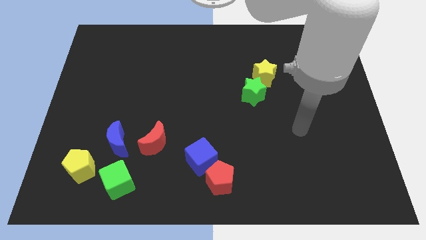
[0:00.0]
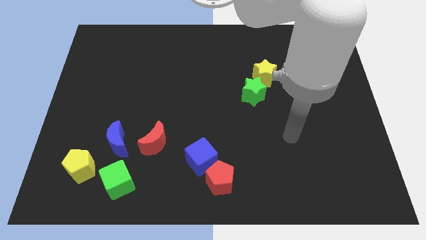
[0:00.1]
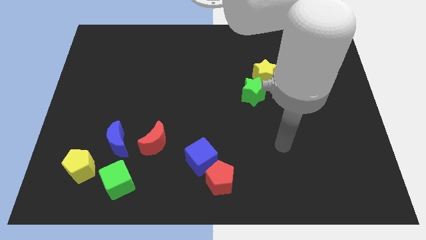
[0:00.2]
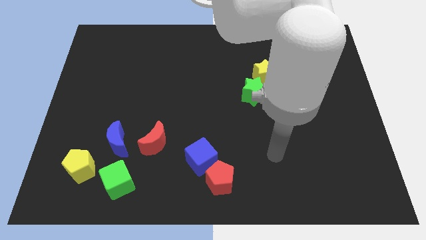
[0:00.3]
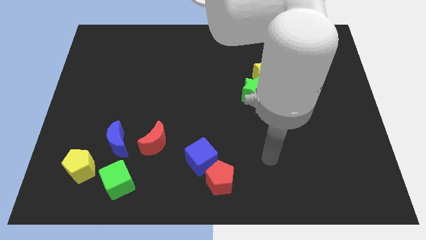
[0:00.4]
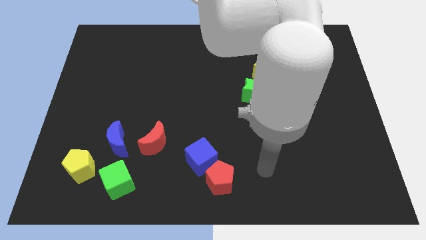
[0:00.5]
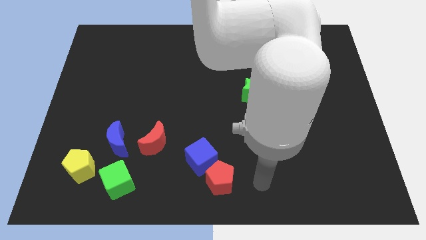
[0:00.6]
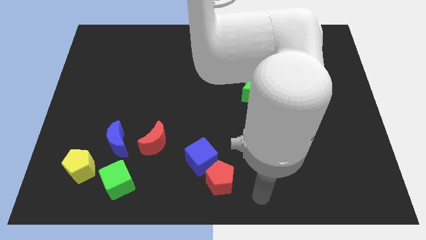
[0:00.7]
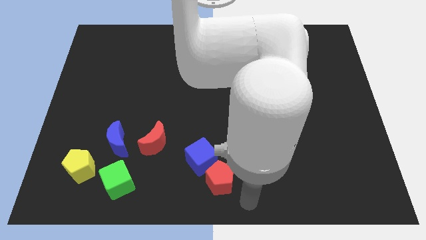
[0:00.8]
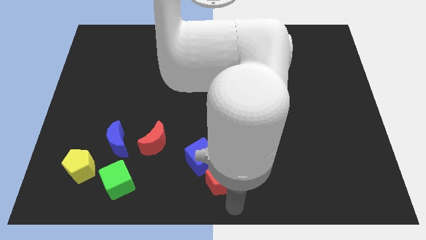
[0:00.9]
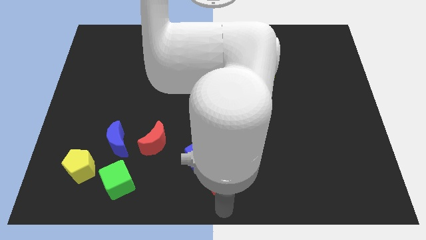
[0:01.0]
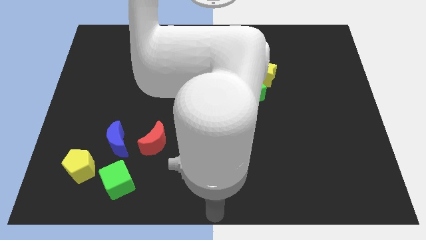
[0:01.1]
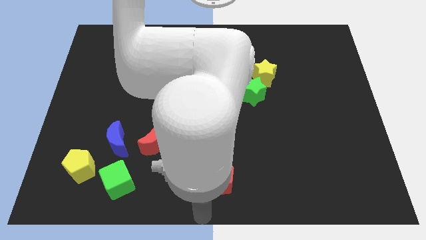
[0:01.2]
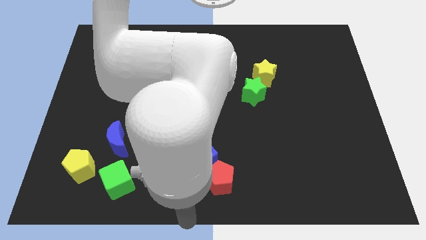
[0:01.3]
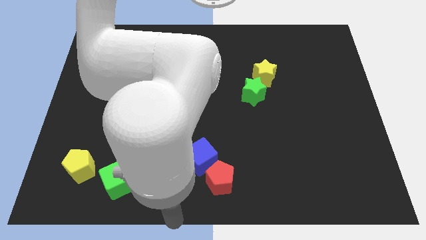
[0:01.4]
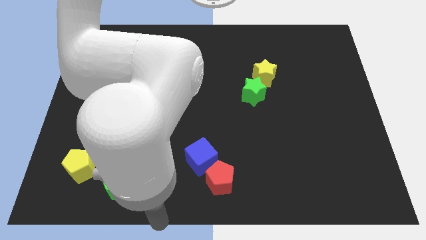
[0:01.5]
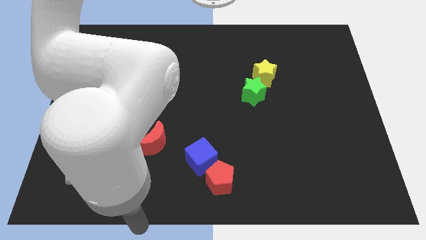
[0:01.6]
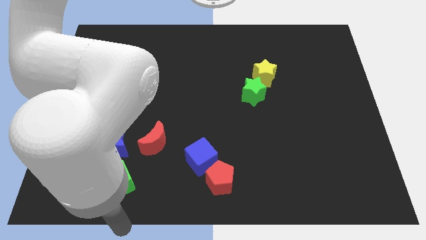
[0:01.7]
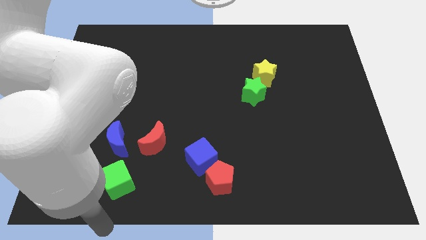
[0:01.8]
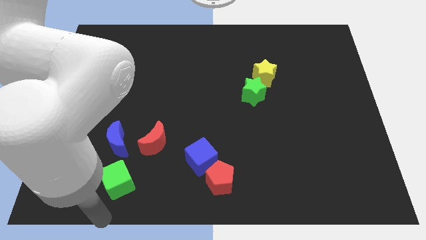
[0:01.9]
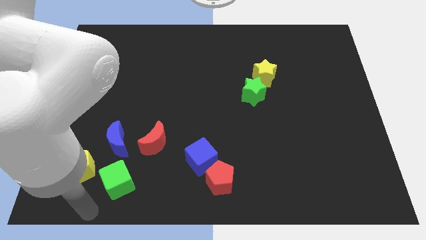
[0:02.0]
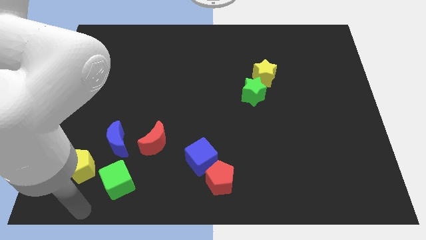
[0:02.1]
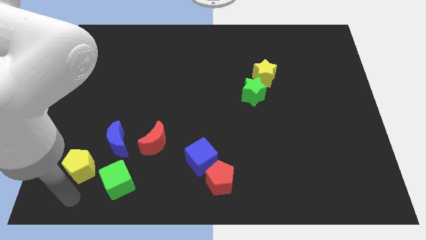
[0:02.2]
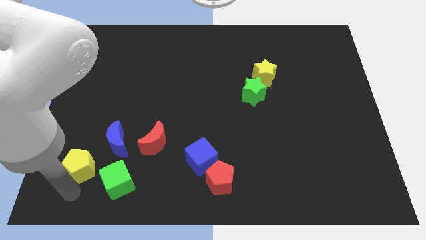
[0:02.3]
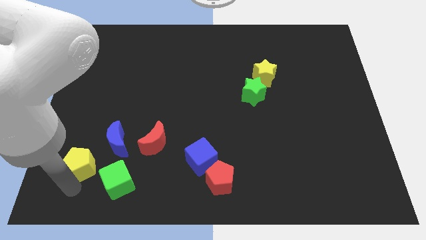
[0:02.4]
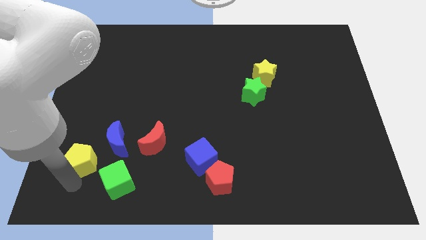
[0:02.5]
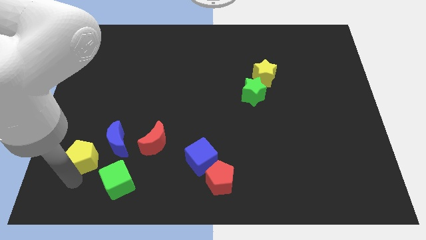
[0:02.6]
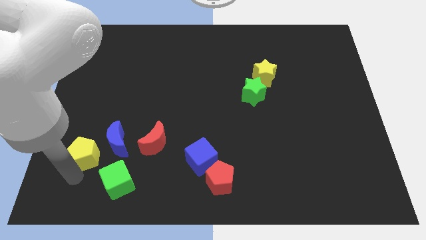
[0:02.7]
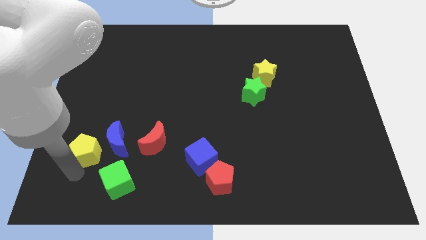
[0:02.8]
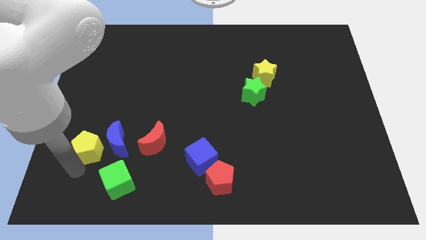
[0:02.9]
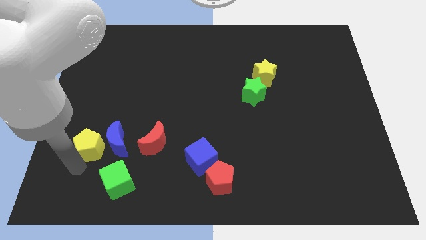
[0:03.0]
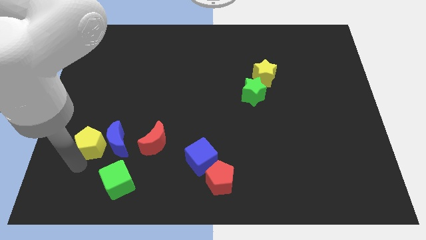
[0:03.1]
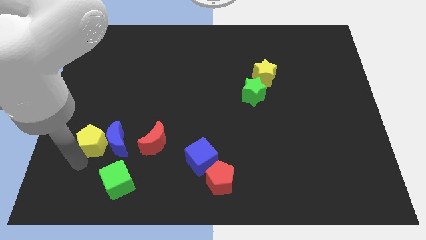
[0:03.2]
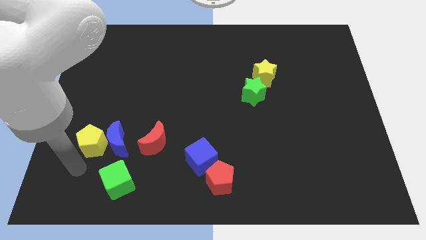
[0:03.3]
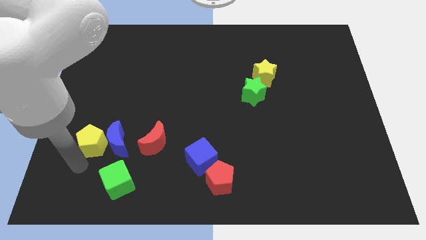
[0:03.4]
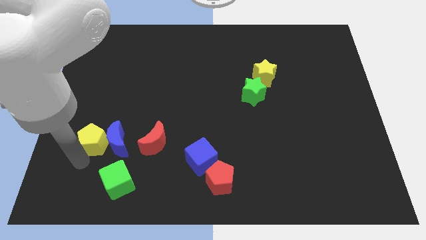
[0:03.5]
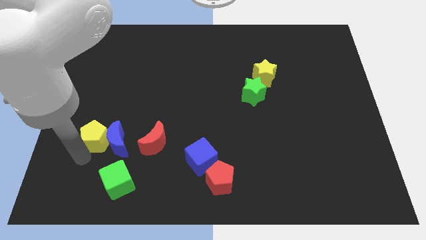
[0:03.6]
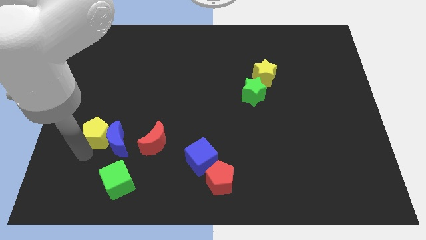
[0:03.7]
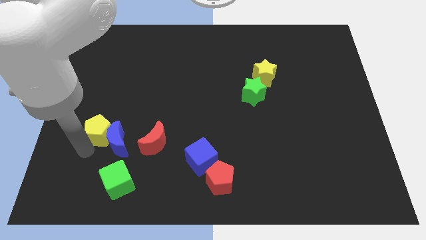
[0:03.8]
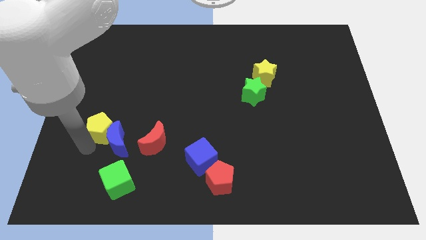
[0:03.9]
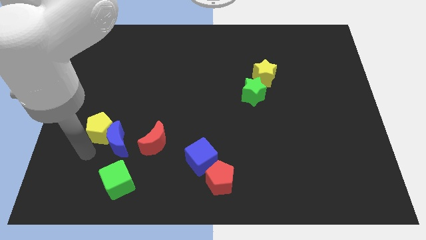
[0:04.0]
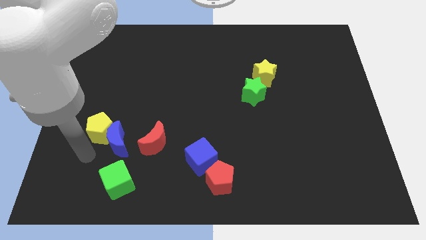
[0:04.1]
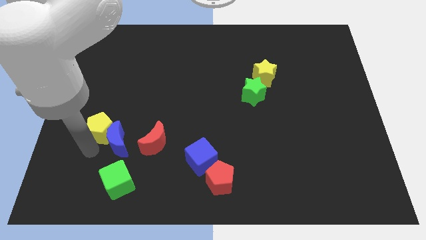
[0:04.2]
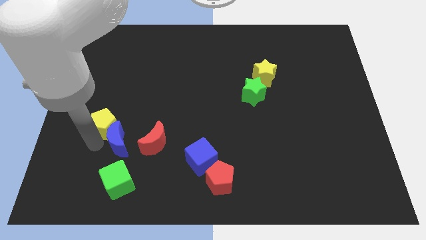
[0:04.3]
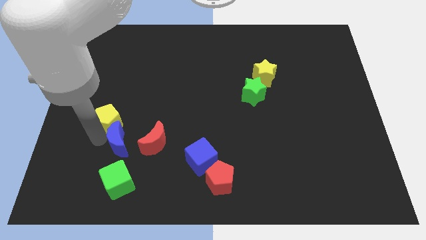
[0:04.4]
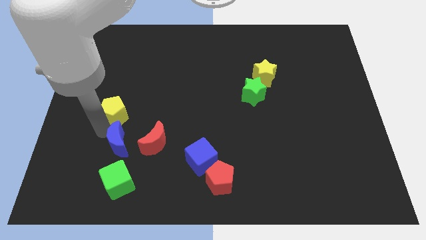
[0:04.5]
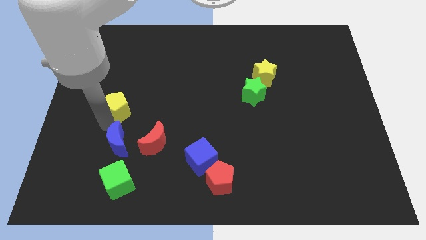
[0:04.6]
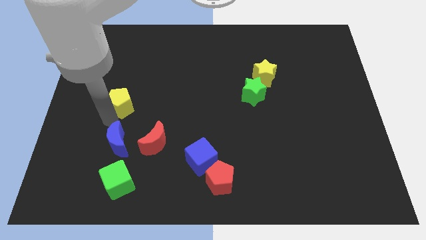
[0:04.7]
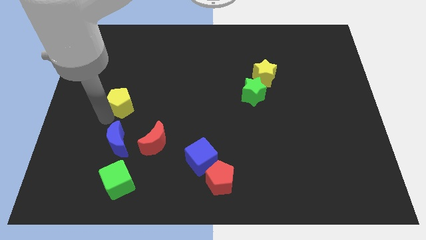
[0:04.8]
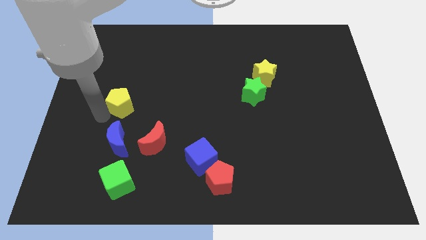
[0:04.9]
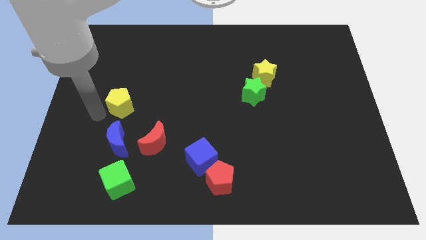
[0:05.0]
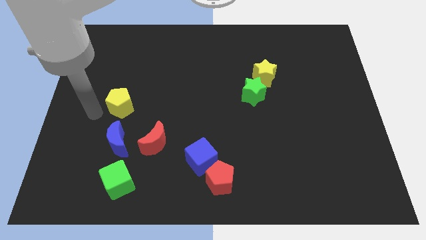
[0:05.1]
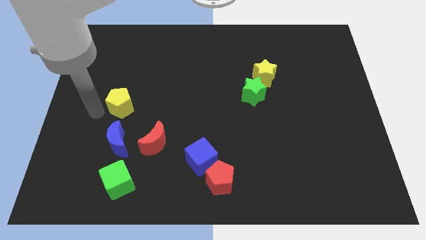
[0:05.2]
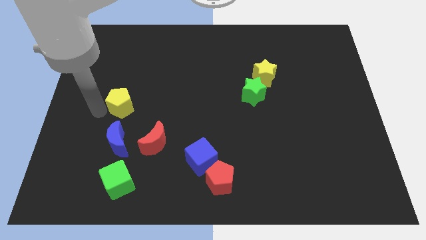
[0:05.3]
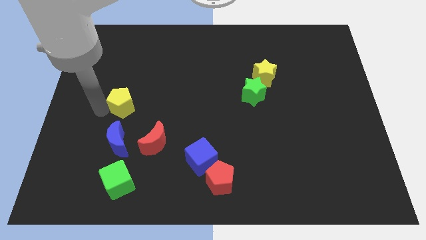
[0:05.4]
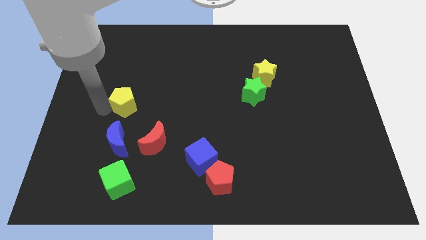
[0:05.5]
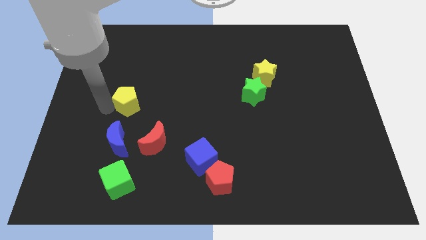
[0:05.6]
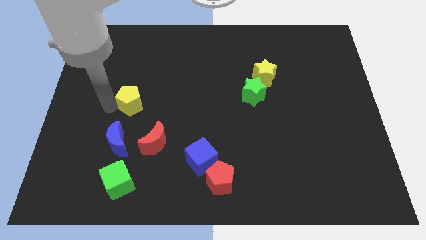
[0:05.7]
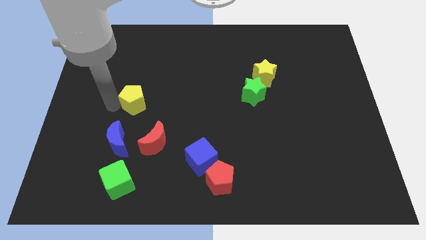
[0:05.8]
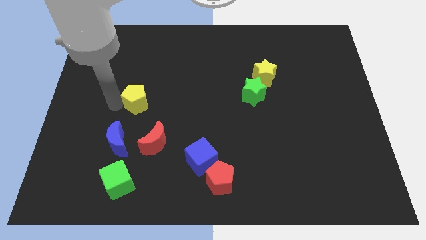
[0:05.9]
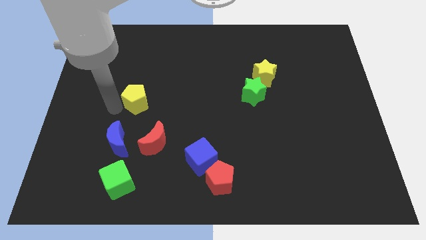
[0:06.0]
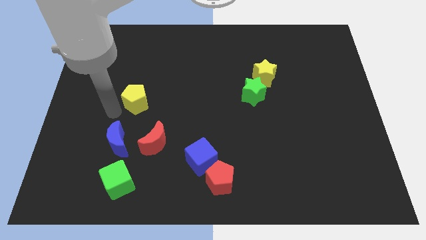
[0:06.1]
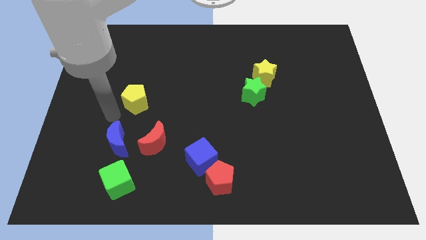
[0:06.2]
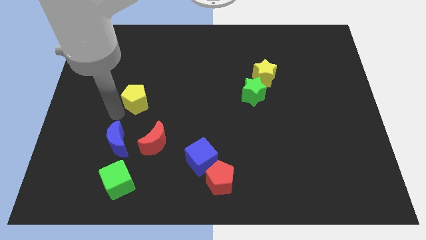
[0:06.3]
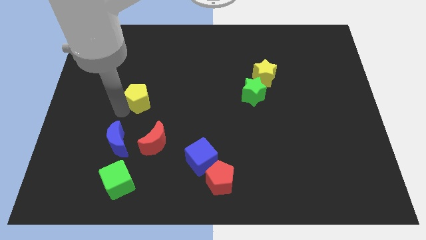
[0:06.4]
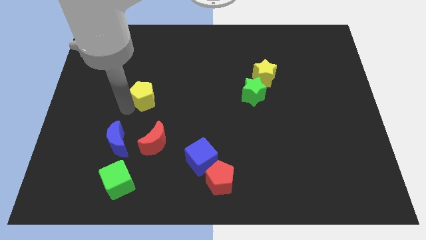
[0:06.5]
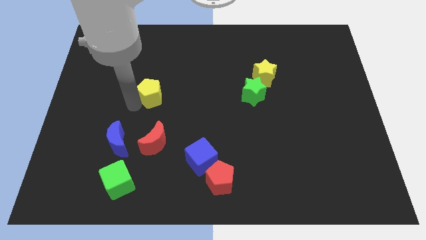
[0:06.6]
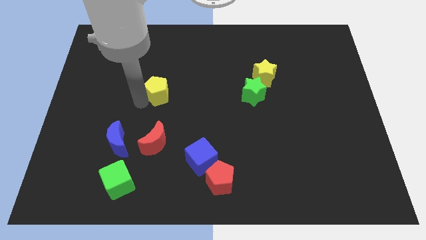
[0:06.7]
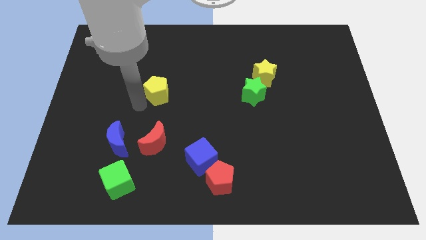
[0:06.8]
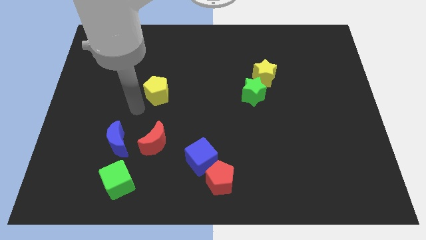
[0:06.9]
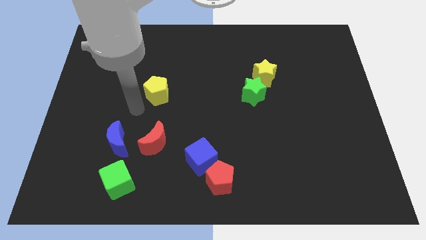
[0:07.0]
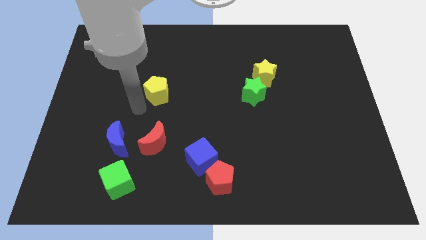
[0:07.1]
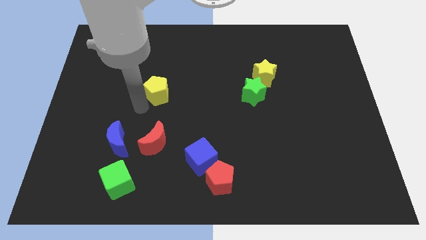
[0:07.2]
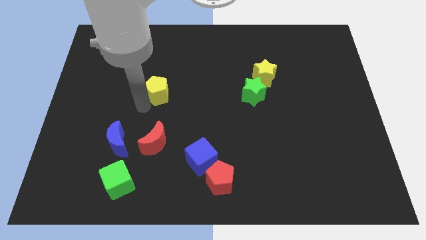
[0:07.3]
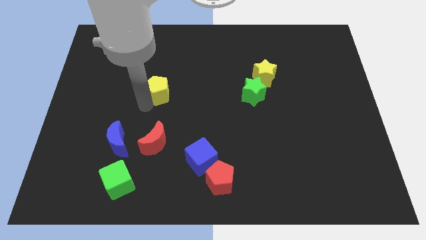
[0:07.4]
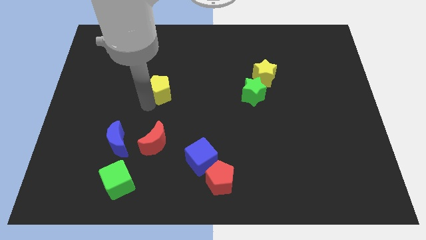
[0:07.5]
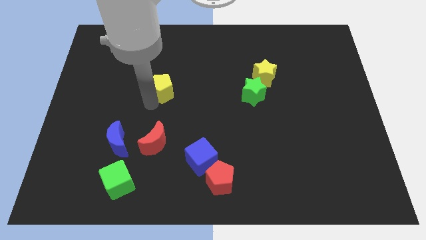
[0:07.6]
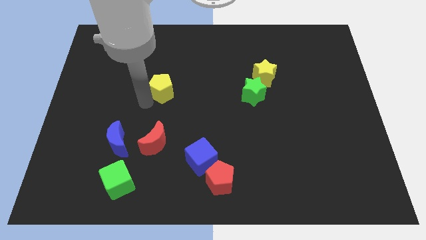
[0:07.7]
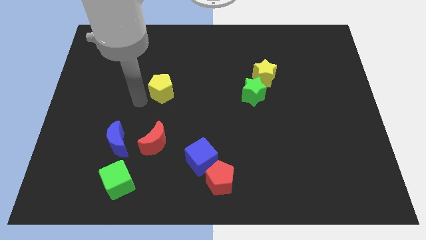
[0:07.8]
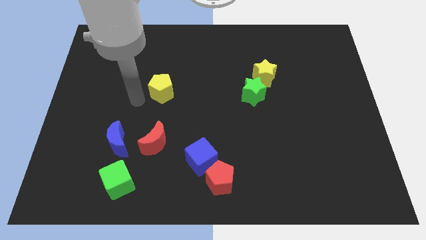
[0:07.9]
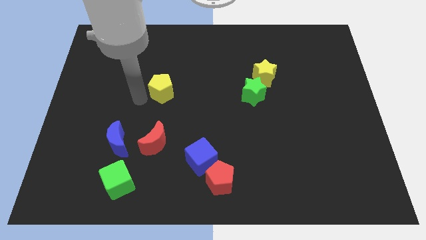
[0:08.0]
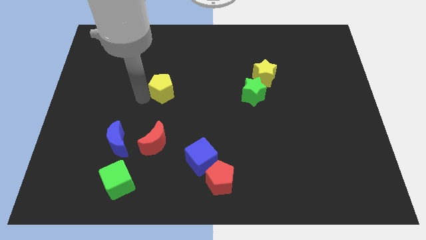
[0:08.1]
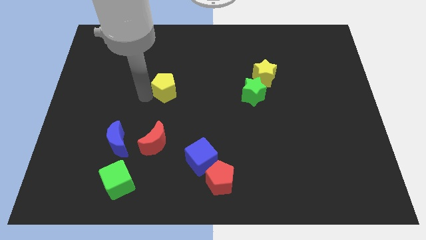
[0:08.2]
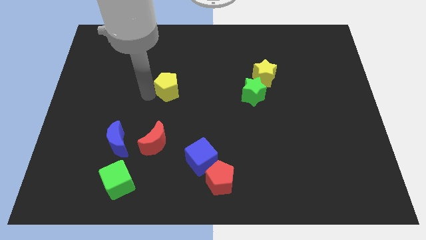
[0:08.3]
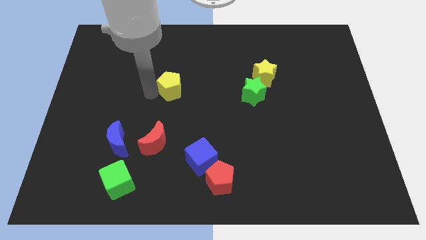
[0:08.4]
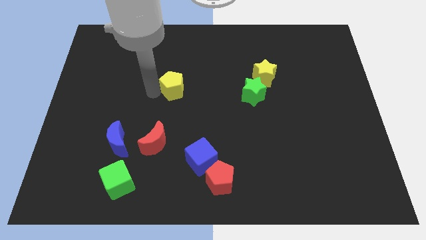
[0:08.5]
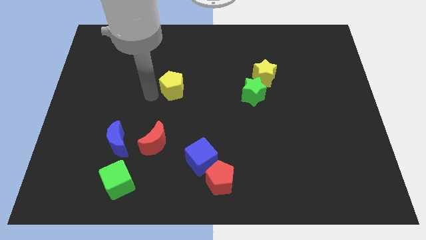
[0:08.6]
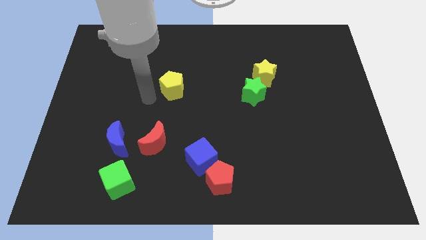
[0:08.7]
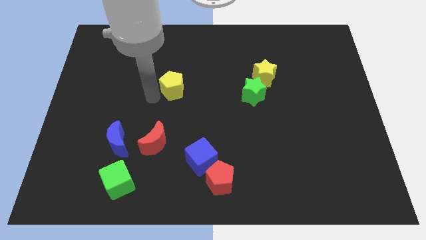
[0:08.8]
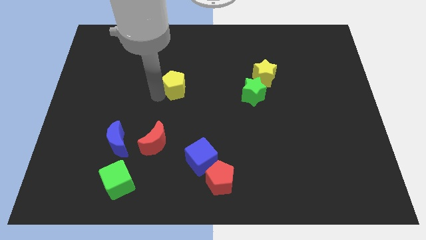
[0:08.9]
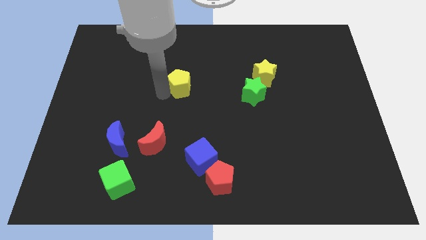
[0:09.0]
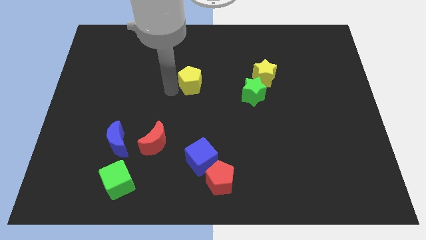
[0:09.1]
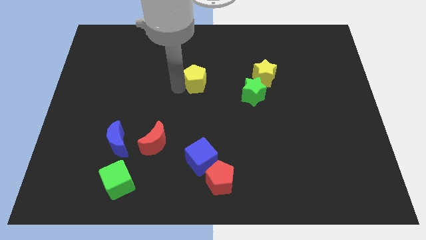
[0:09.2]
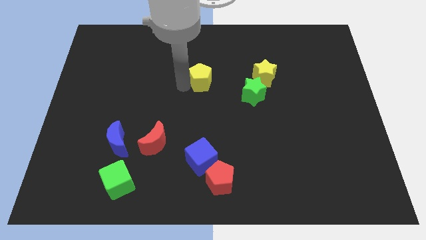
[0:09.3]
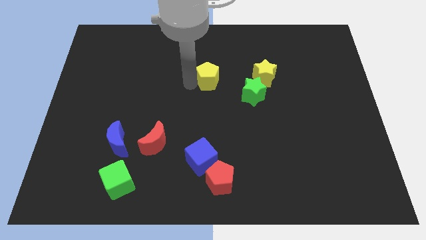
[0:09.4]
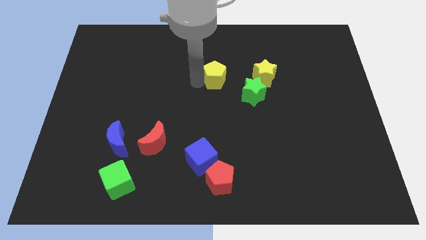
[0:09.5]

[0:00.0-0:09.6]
move the yellow pentagon to the top left of the green star
